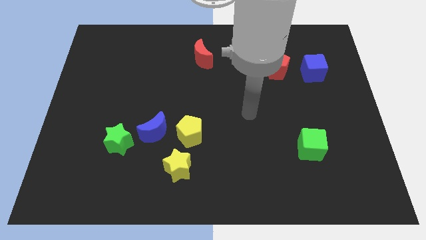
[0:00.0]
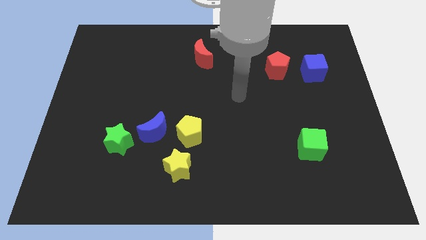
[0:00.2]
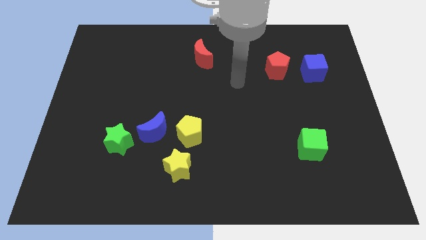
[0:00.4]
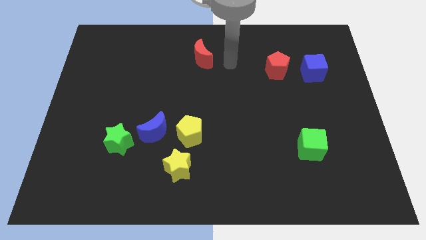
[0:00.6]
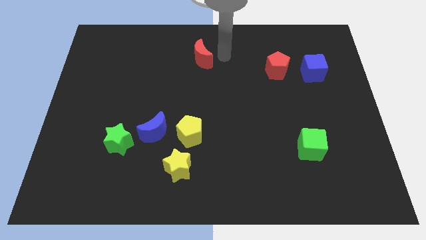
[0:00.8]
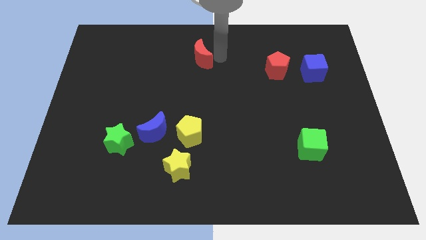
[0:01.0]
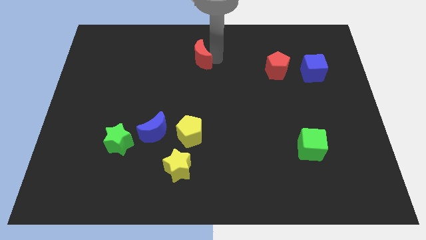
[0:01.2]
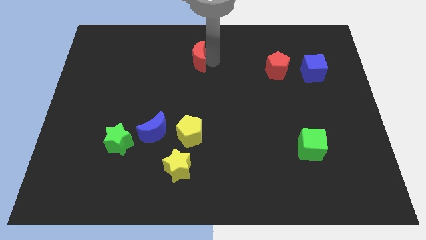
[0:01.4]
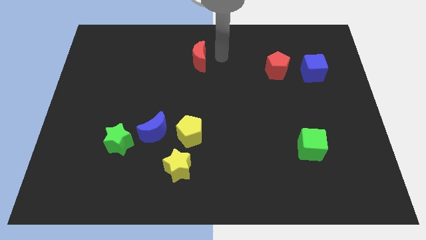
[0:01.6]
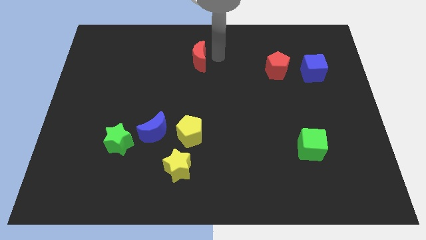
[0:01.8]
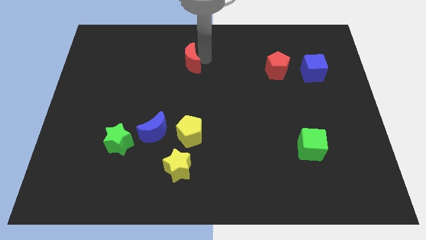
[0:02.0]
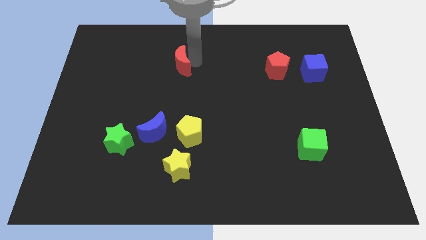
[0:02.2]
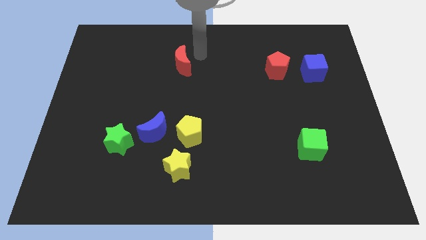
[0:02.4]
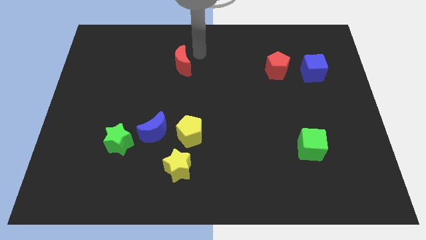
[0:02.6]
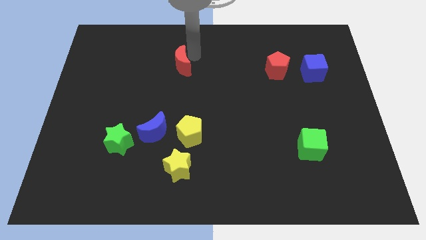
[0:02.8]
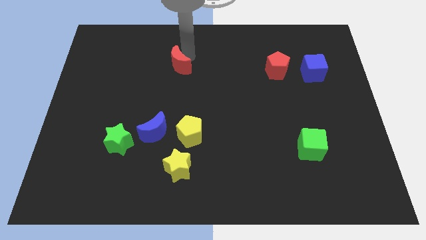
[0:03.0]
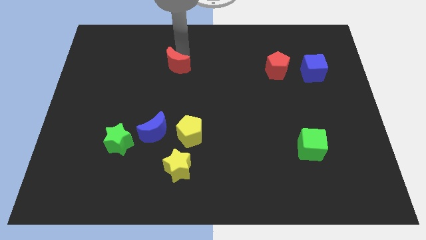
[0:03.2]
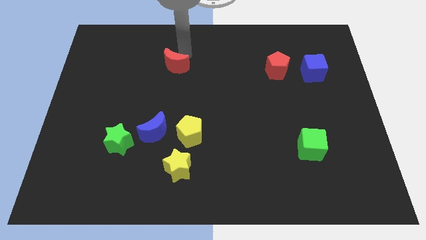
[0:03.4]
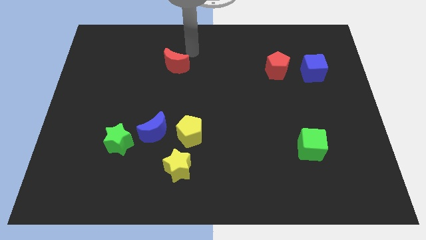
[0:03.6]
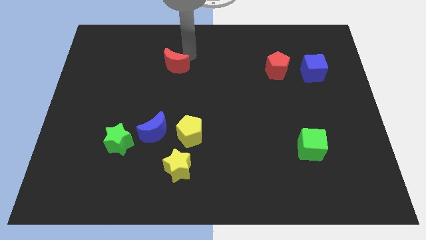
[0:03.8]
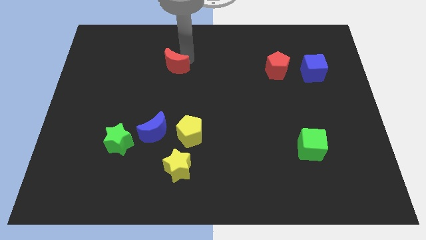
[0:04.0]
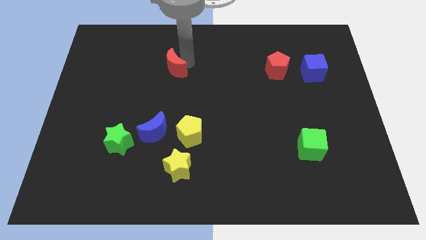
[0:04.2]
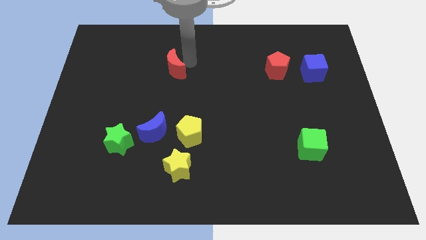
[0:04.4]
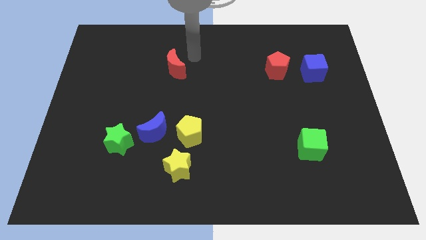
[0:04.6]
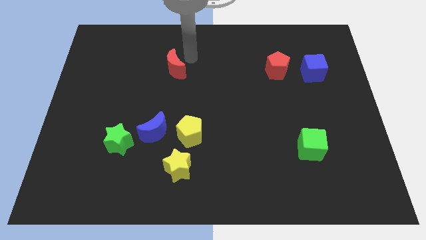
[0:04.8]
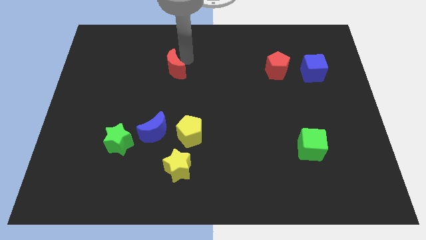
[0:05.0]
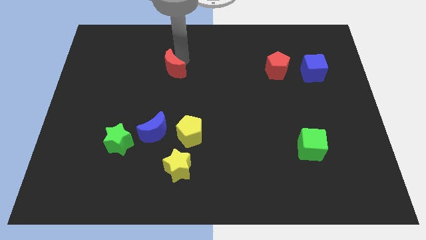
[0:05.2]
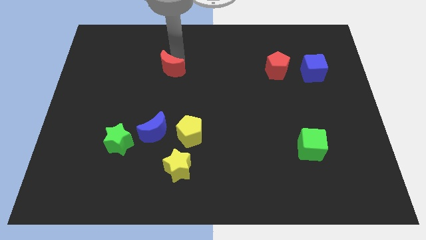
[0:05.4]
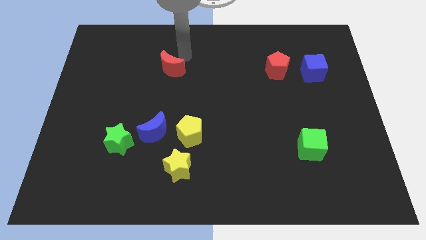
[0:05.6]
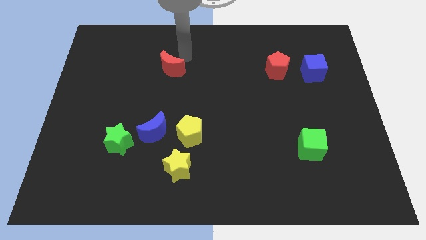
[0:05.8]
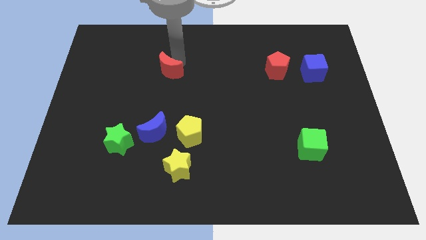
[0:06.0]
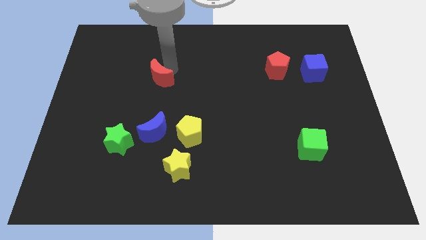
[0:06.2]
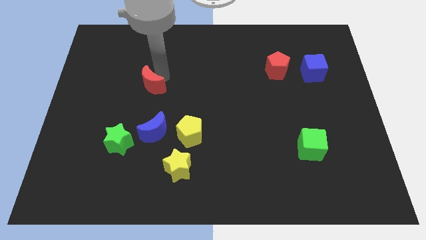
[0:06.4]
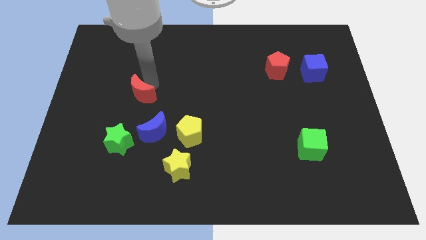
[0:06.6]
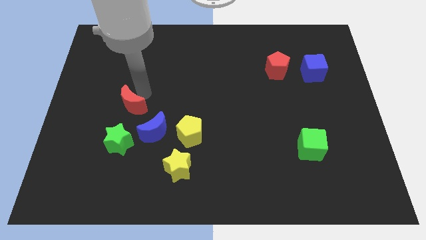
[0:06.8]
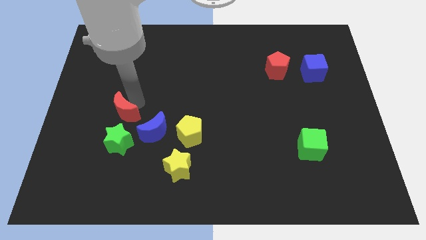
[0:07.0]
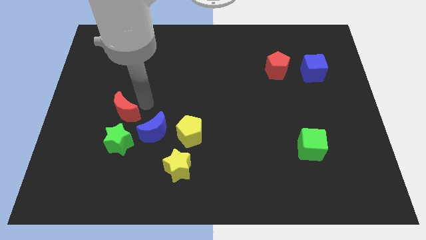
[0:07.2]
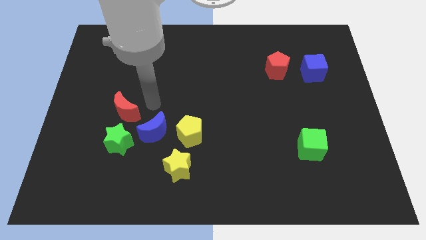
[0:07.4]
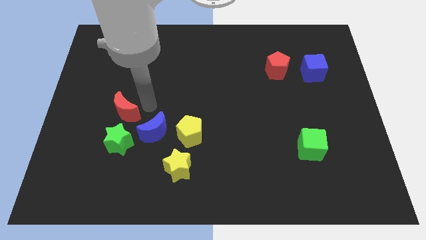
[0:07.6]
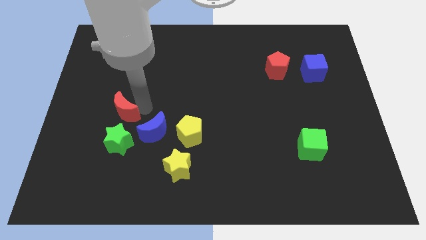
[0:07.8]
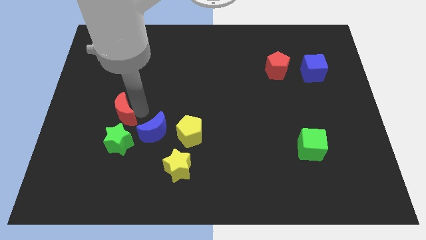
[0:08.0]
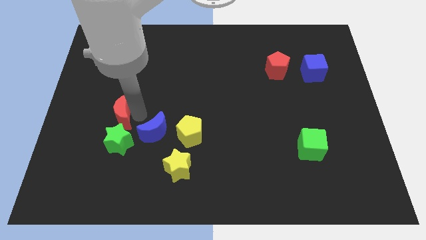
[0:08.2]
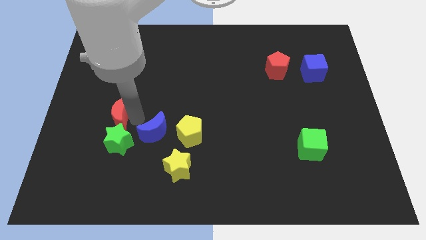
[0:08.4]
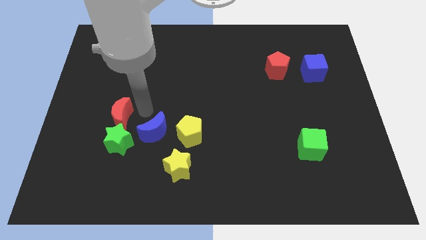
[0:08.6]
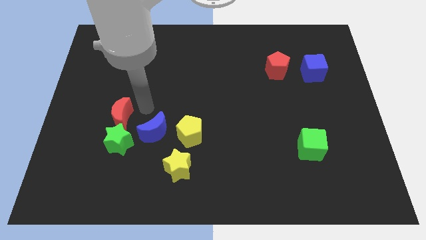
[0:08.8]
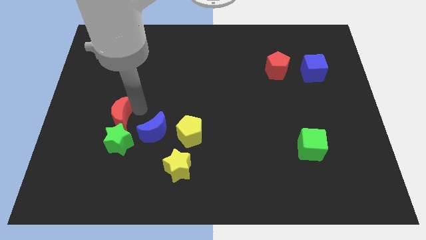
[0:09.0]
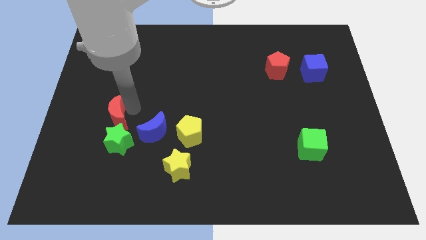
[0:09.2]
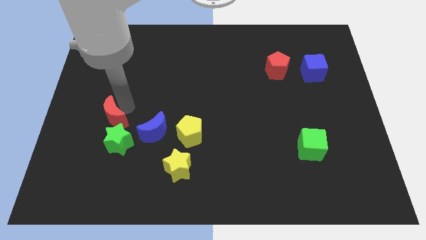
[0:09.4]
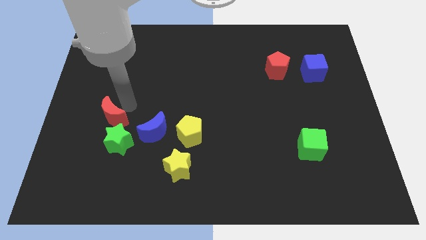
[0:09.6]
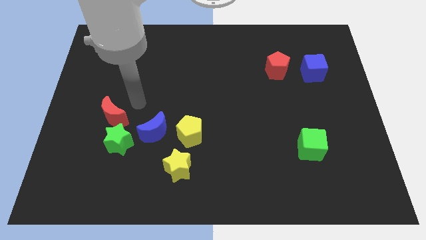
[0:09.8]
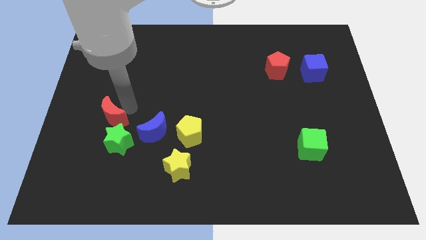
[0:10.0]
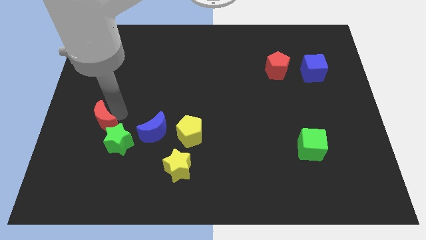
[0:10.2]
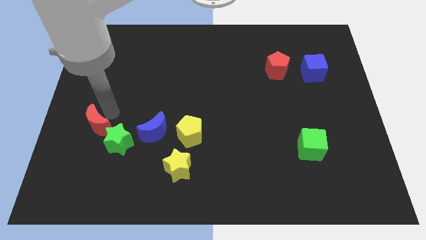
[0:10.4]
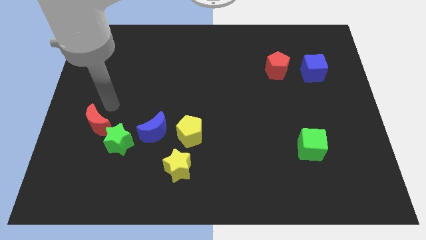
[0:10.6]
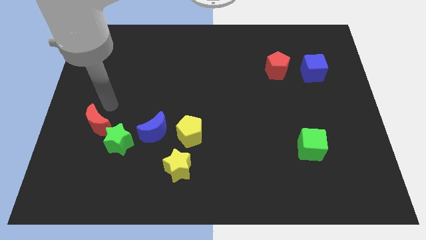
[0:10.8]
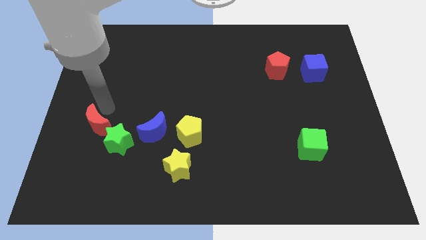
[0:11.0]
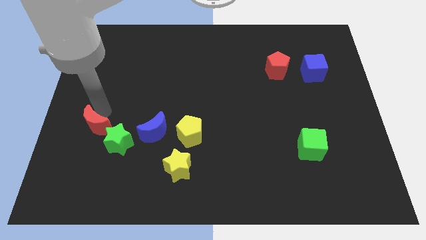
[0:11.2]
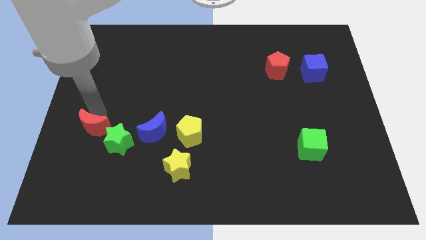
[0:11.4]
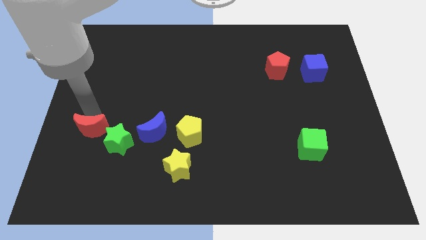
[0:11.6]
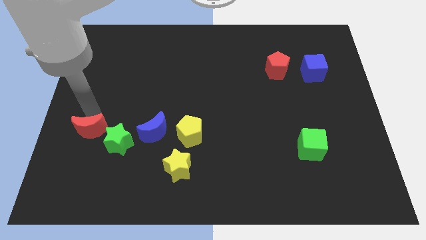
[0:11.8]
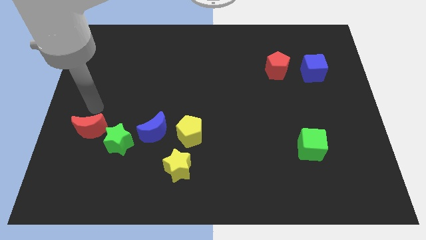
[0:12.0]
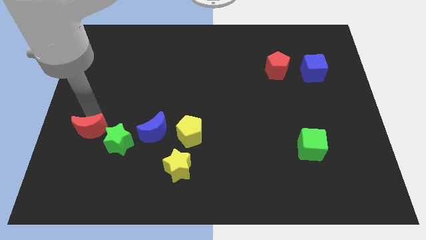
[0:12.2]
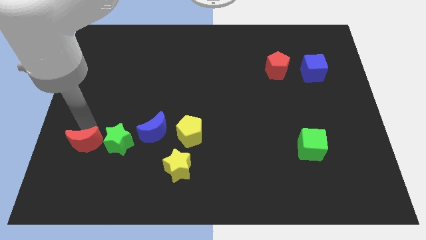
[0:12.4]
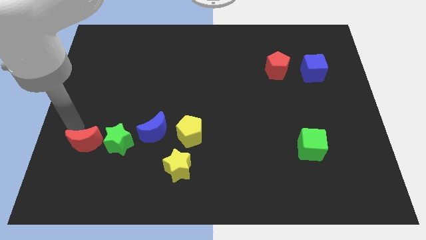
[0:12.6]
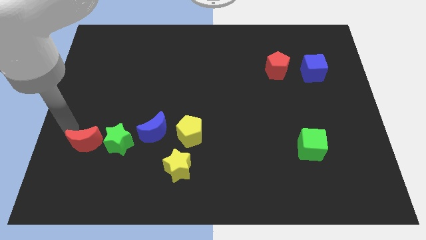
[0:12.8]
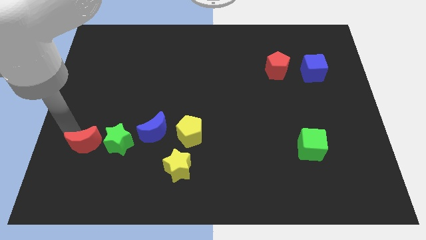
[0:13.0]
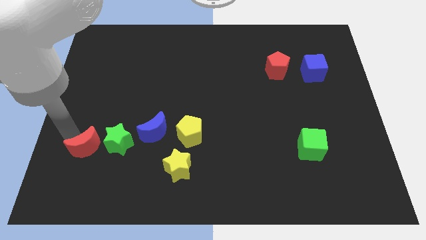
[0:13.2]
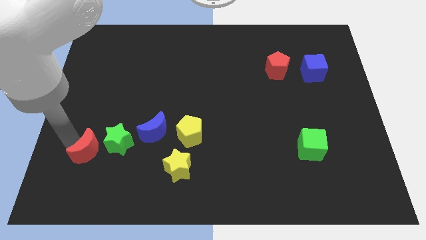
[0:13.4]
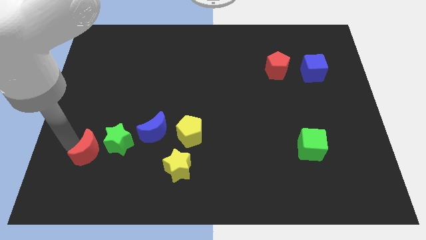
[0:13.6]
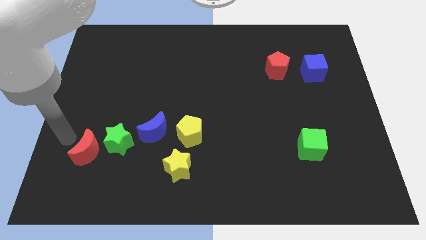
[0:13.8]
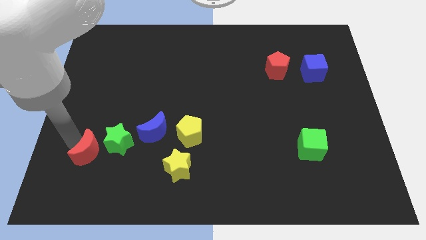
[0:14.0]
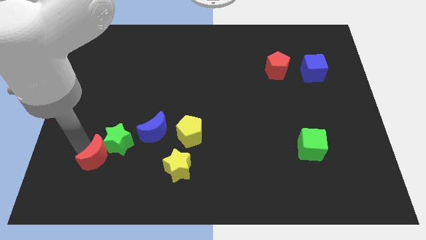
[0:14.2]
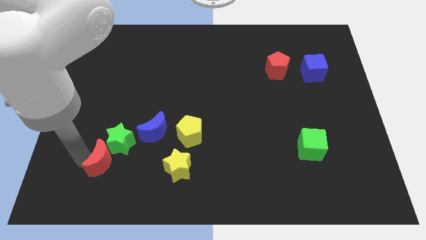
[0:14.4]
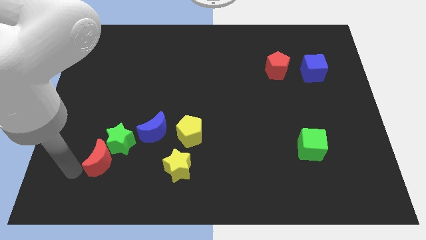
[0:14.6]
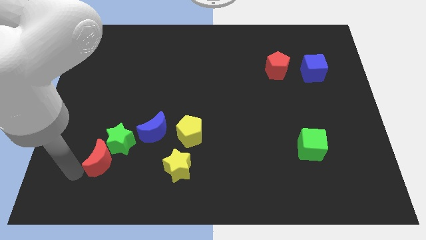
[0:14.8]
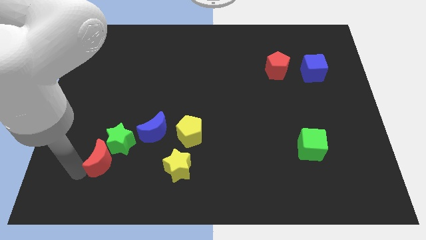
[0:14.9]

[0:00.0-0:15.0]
slide the red moon diagonally down and to the left of the blue moon
